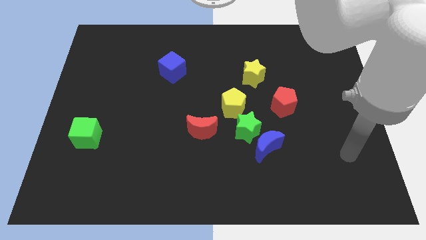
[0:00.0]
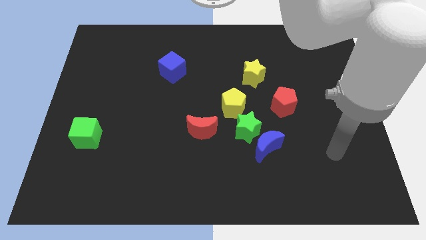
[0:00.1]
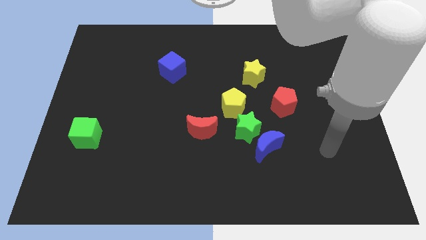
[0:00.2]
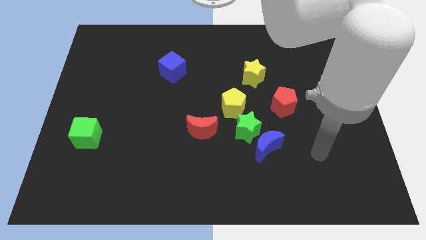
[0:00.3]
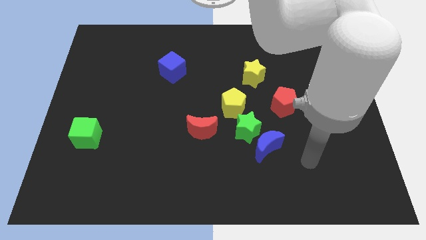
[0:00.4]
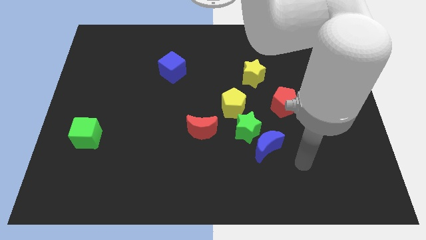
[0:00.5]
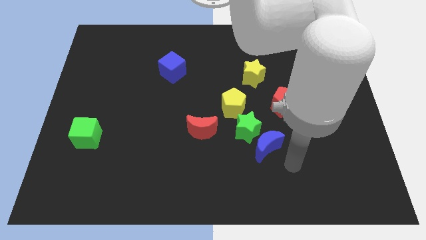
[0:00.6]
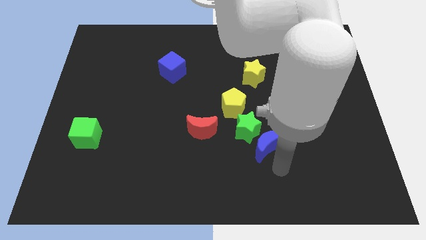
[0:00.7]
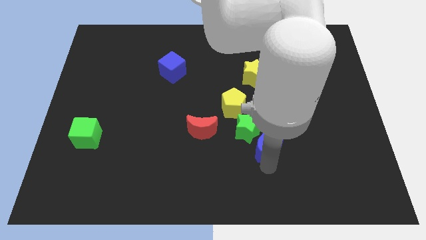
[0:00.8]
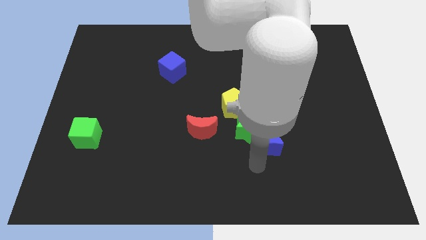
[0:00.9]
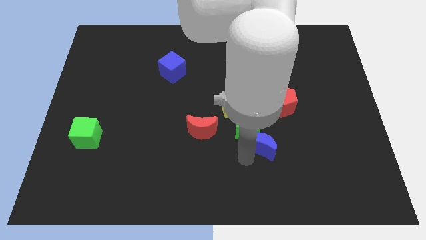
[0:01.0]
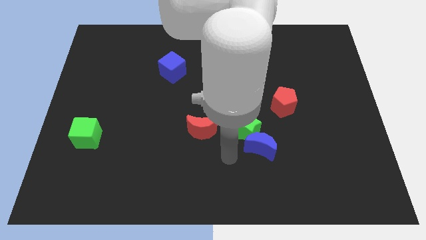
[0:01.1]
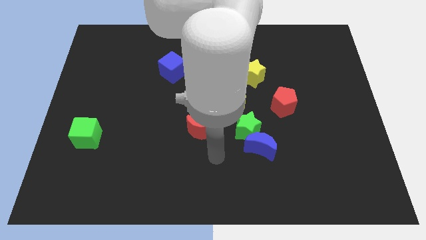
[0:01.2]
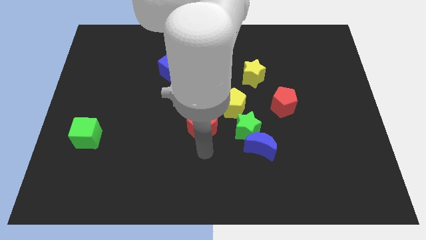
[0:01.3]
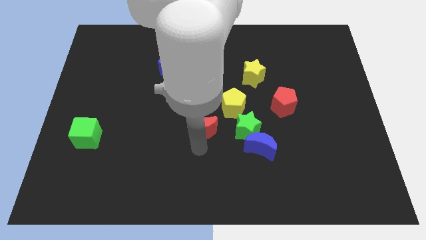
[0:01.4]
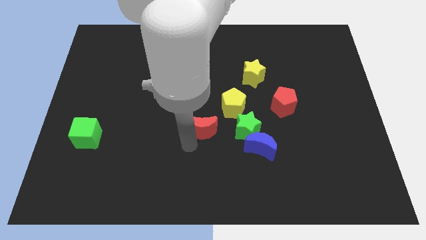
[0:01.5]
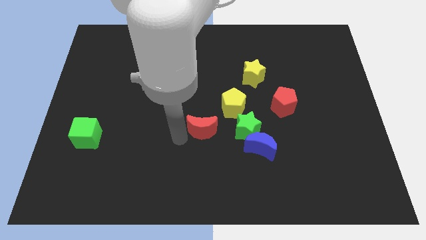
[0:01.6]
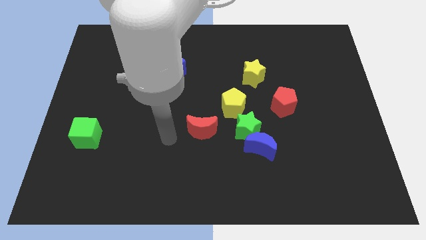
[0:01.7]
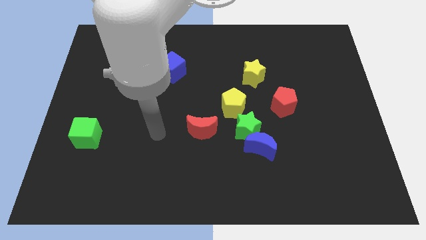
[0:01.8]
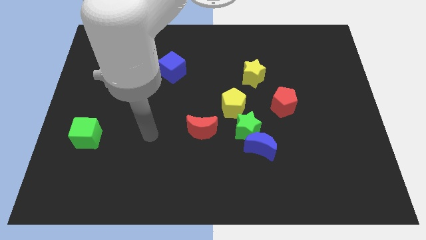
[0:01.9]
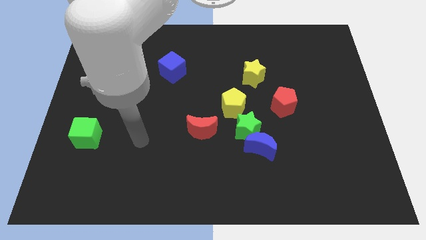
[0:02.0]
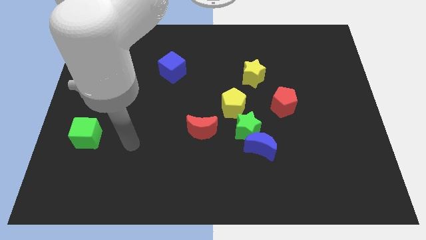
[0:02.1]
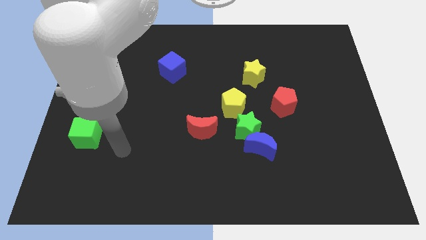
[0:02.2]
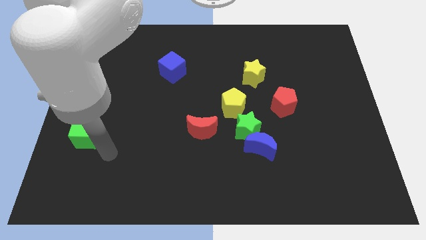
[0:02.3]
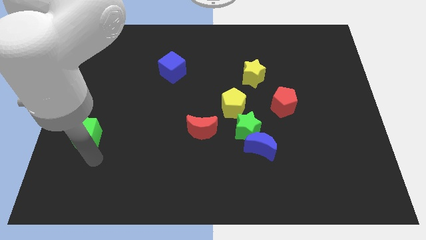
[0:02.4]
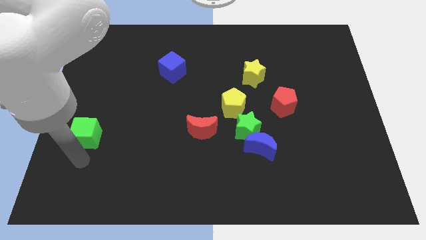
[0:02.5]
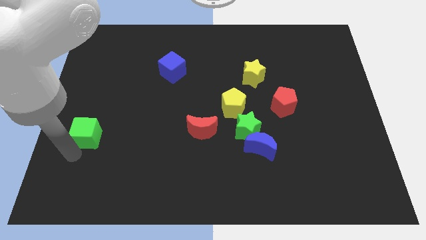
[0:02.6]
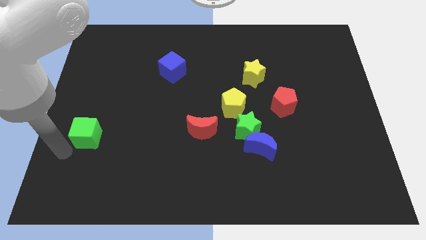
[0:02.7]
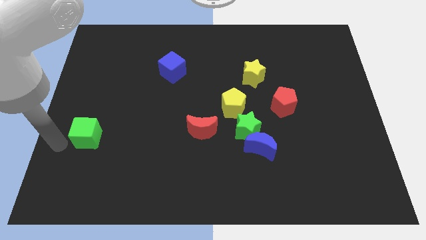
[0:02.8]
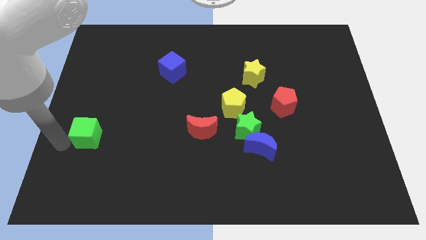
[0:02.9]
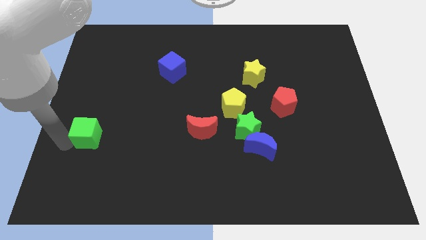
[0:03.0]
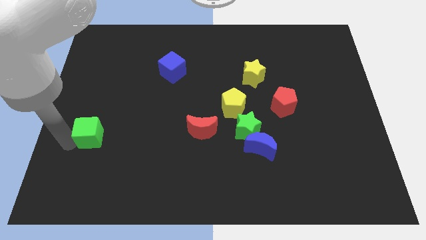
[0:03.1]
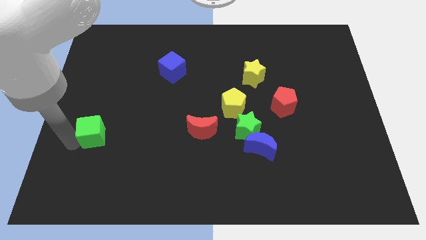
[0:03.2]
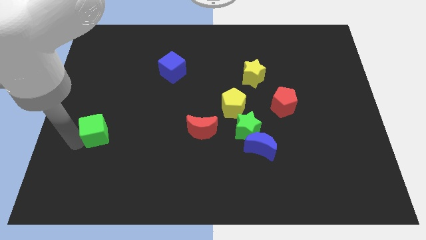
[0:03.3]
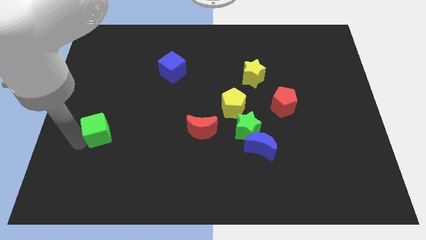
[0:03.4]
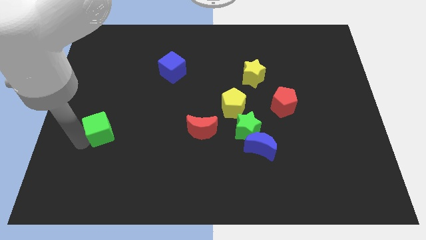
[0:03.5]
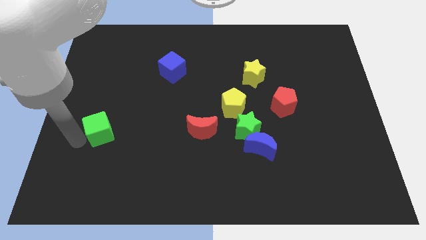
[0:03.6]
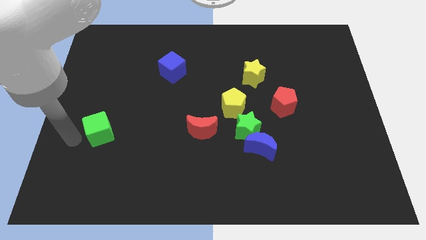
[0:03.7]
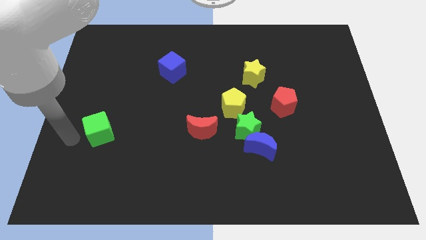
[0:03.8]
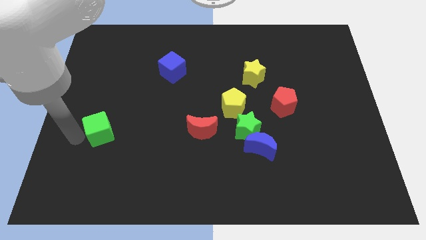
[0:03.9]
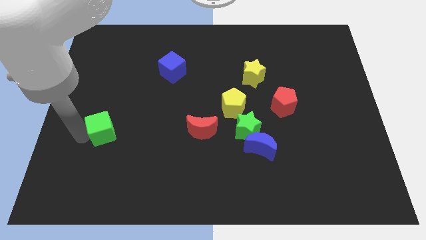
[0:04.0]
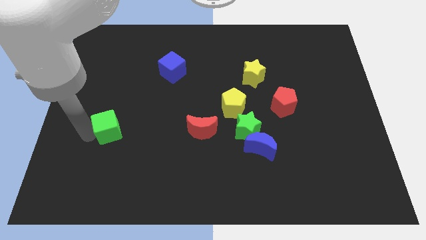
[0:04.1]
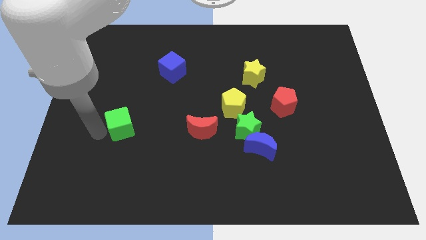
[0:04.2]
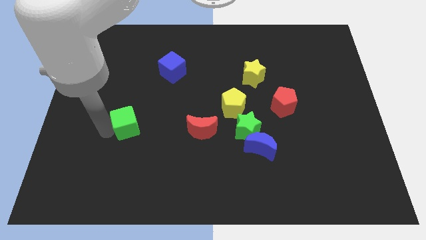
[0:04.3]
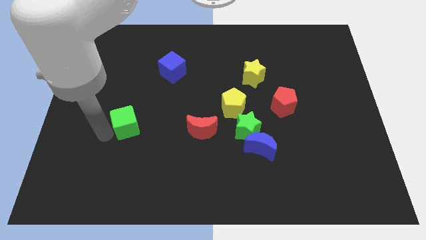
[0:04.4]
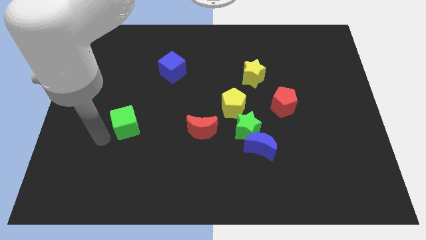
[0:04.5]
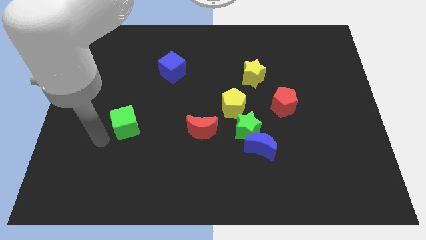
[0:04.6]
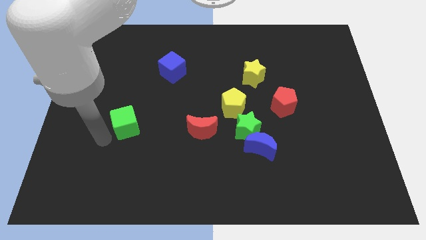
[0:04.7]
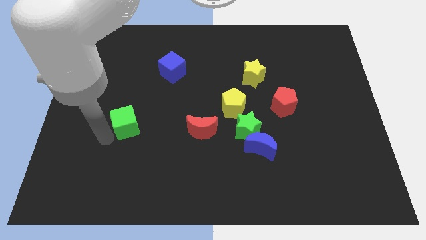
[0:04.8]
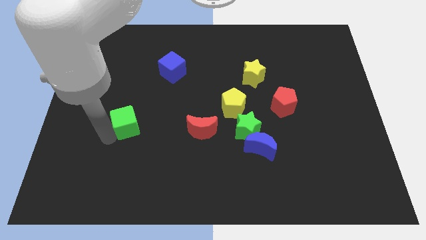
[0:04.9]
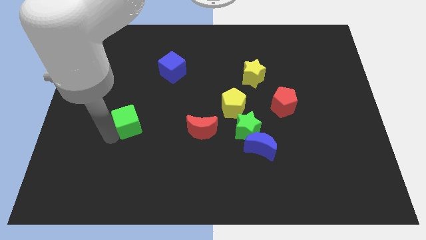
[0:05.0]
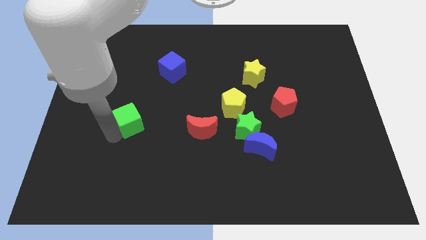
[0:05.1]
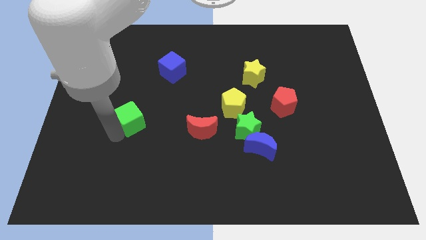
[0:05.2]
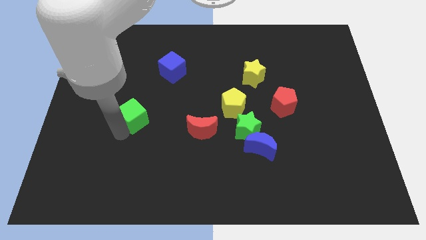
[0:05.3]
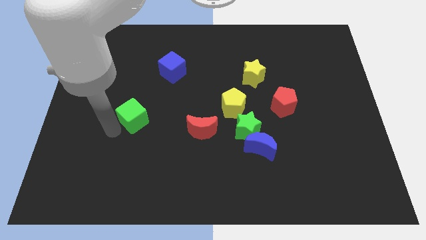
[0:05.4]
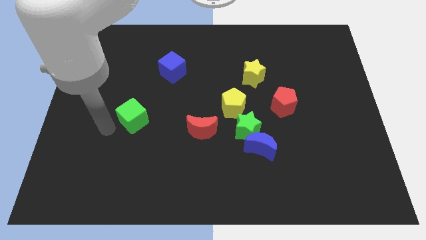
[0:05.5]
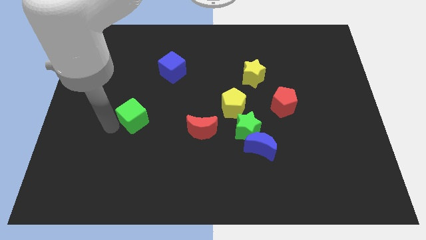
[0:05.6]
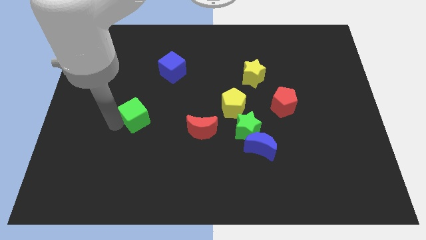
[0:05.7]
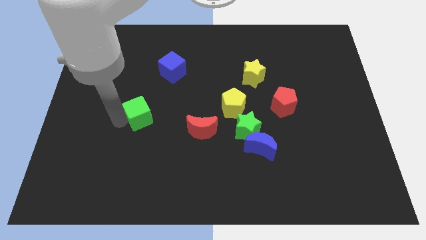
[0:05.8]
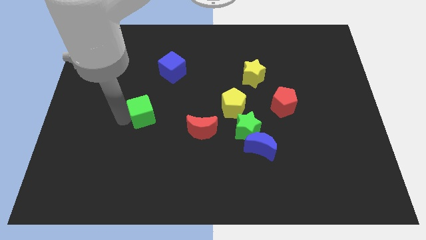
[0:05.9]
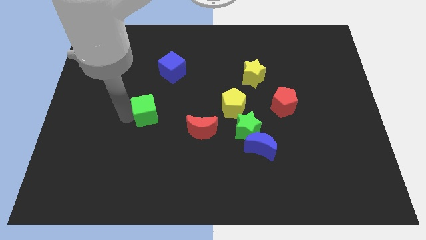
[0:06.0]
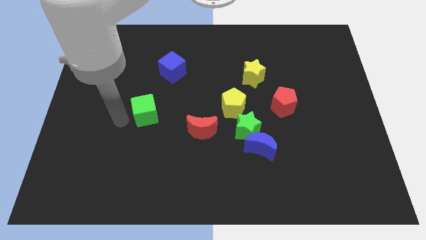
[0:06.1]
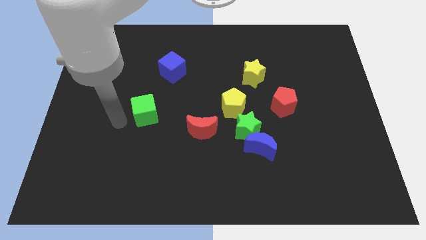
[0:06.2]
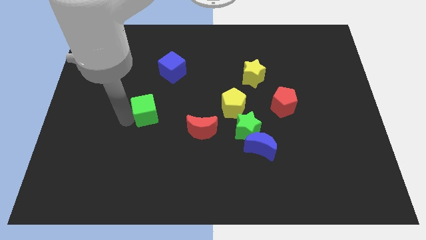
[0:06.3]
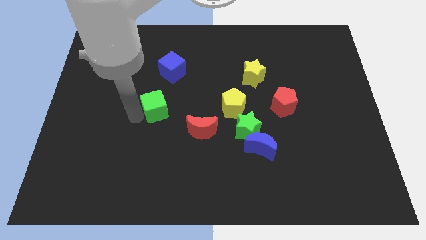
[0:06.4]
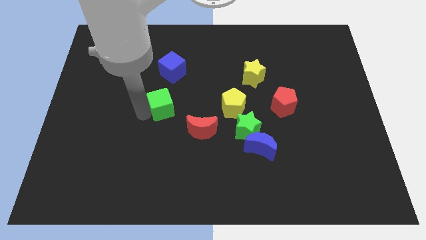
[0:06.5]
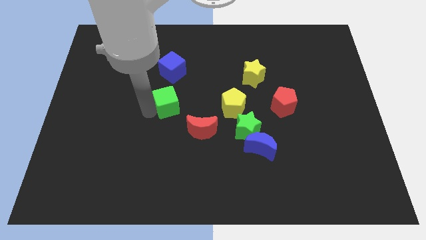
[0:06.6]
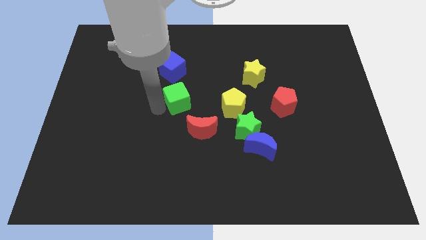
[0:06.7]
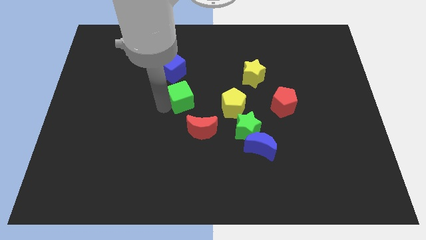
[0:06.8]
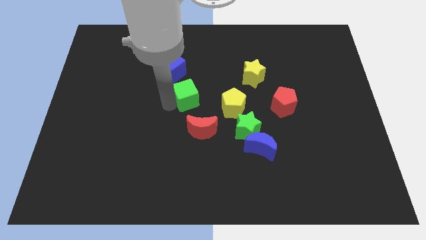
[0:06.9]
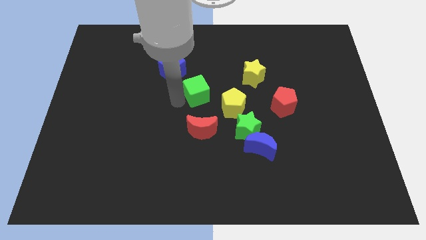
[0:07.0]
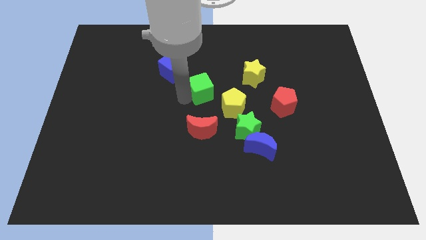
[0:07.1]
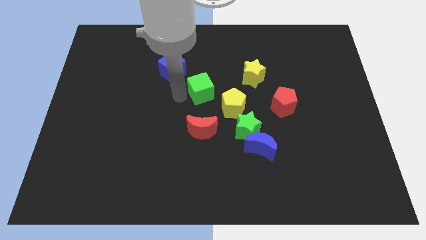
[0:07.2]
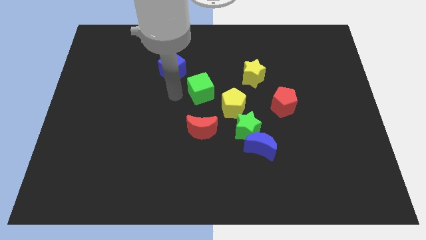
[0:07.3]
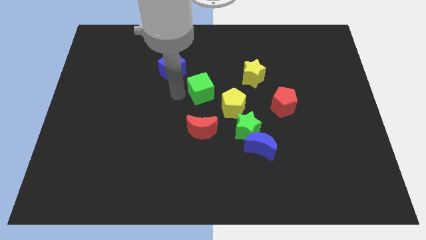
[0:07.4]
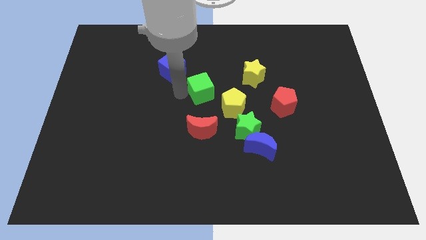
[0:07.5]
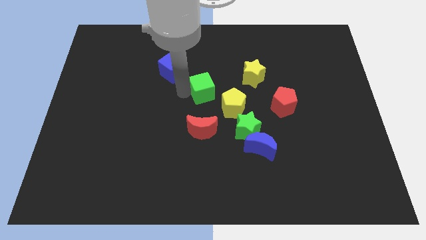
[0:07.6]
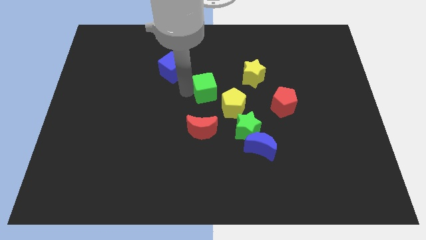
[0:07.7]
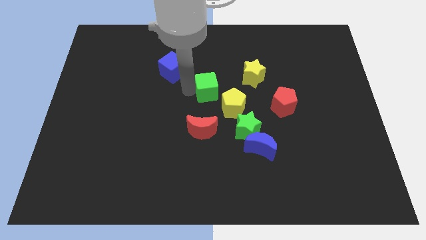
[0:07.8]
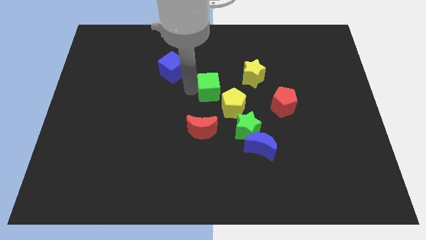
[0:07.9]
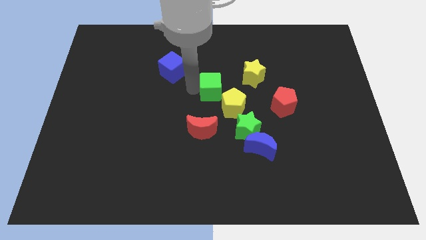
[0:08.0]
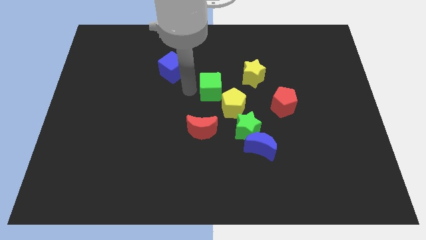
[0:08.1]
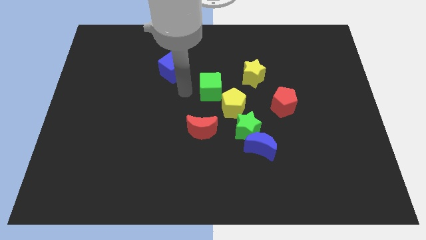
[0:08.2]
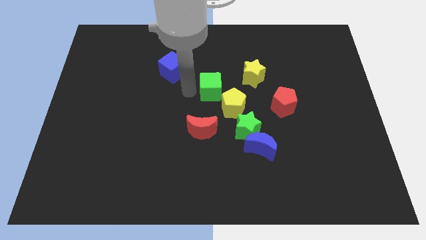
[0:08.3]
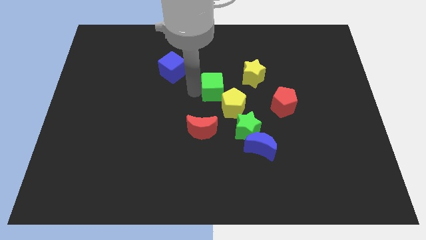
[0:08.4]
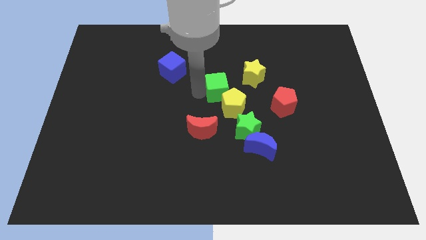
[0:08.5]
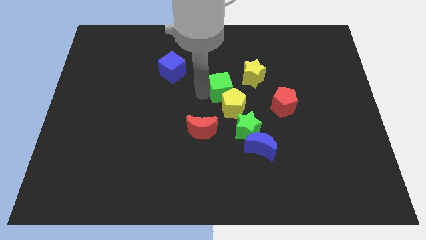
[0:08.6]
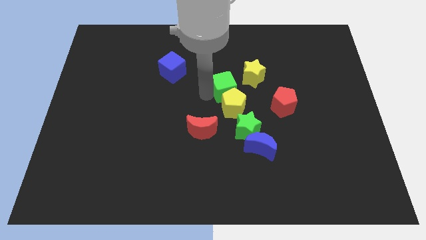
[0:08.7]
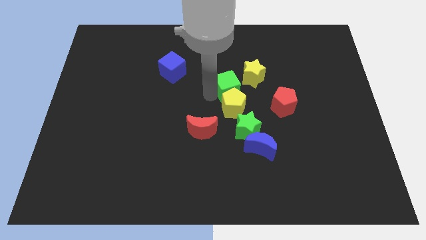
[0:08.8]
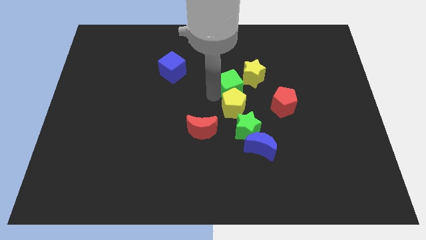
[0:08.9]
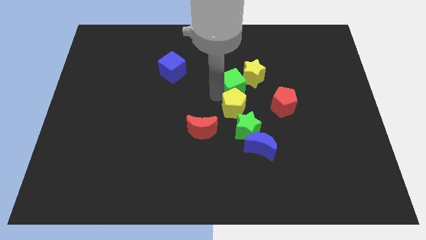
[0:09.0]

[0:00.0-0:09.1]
push the green cube to the yellow star
